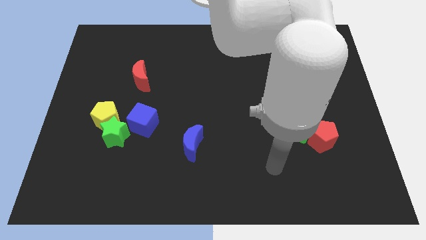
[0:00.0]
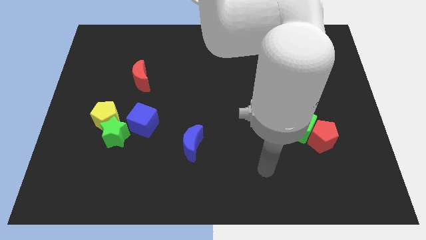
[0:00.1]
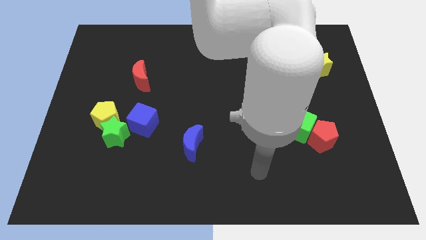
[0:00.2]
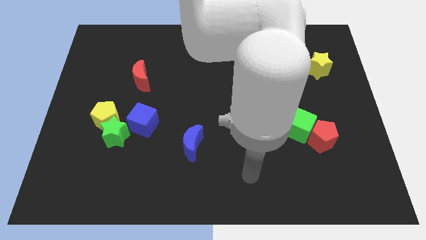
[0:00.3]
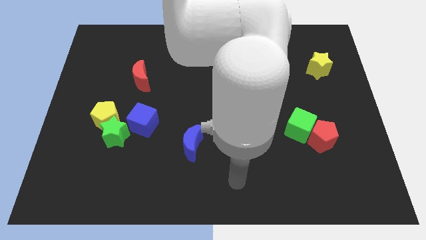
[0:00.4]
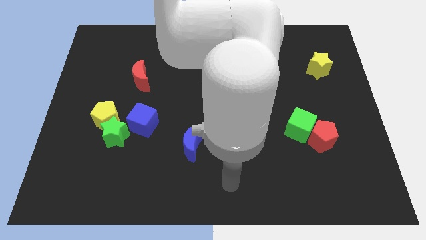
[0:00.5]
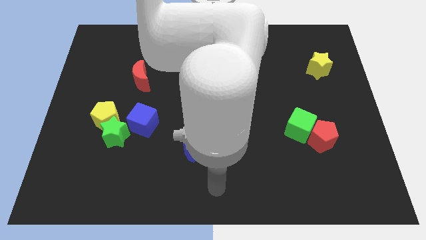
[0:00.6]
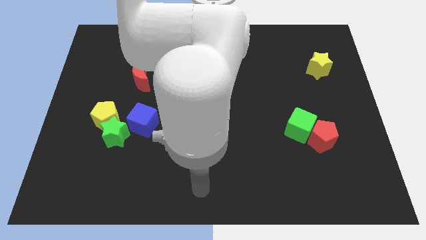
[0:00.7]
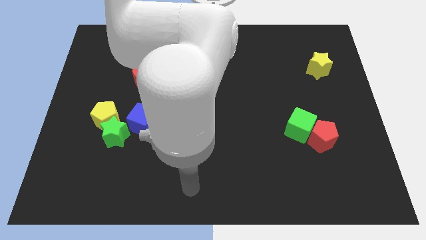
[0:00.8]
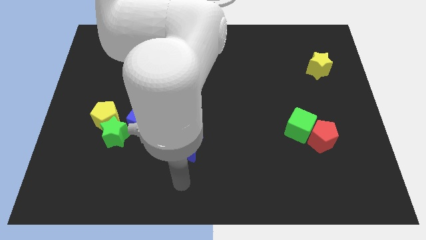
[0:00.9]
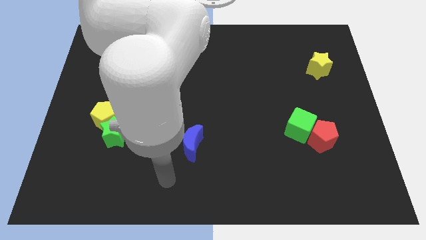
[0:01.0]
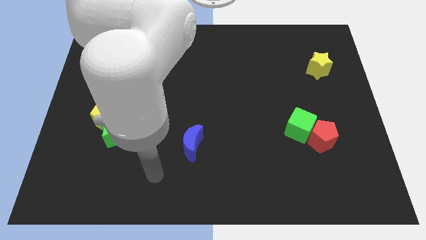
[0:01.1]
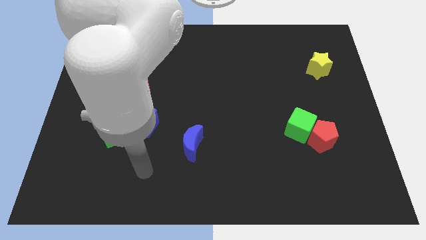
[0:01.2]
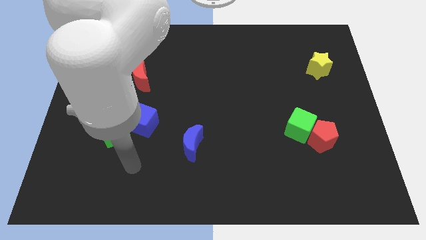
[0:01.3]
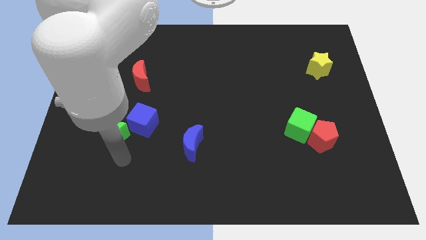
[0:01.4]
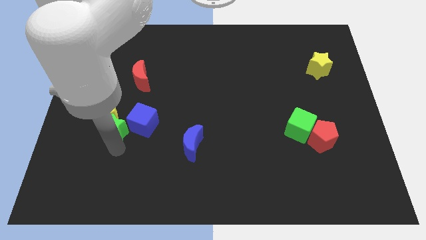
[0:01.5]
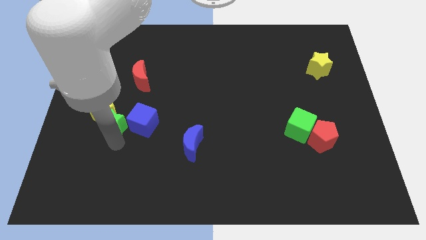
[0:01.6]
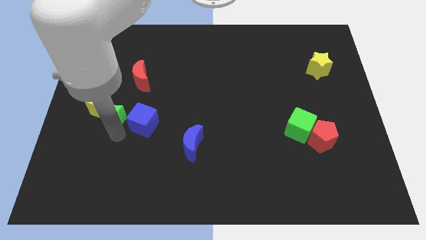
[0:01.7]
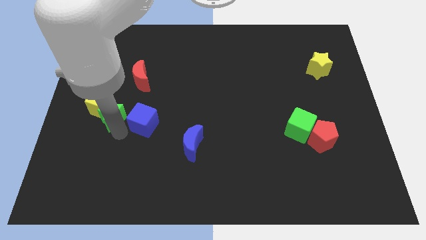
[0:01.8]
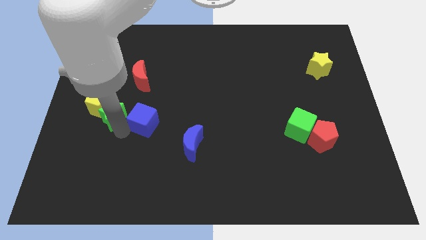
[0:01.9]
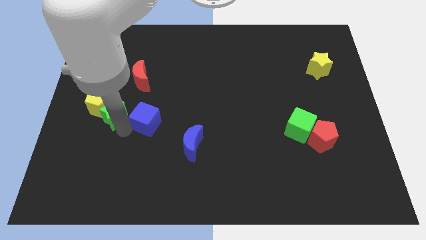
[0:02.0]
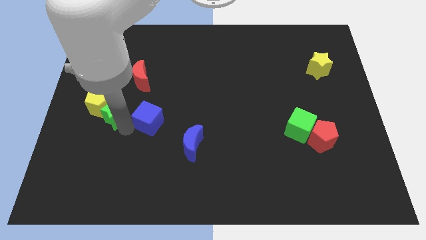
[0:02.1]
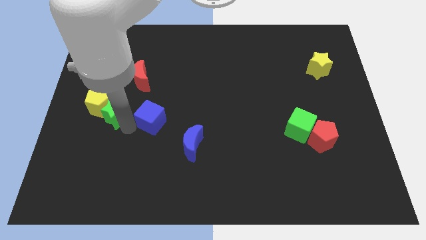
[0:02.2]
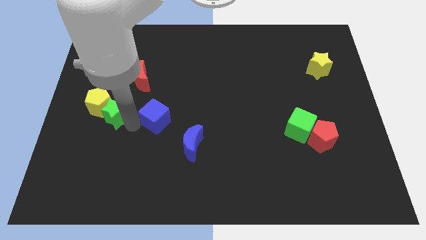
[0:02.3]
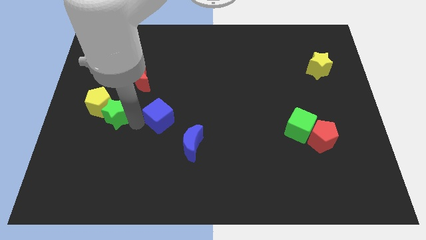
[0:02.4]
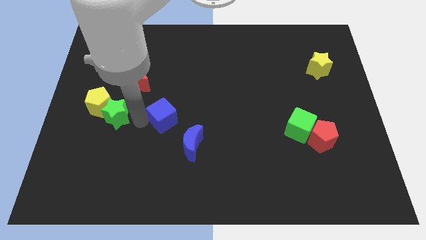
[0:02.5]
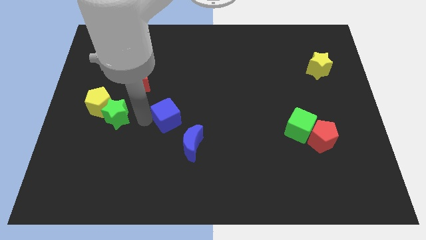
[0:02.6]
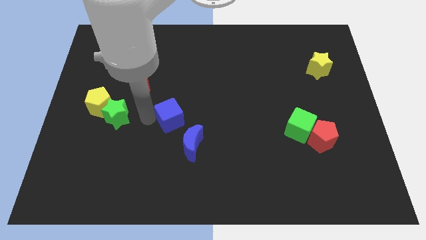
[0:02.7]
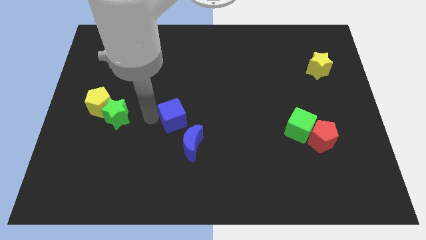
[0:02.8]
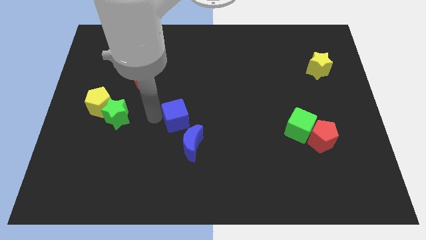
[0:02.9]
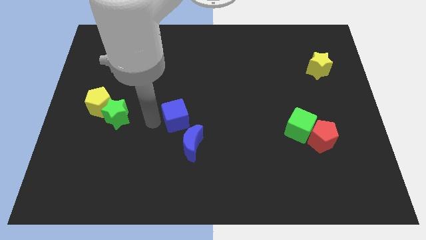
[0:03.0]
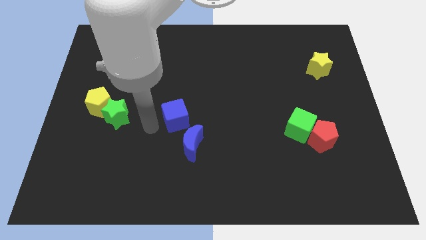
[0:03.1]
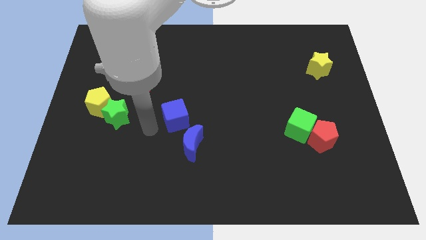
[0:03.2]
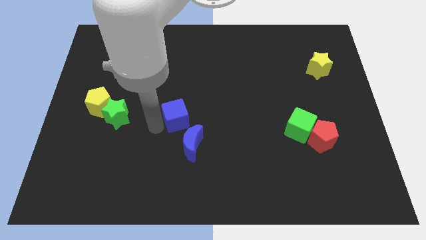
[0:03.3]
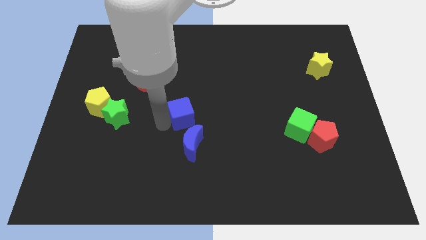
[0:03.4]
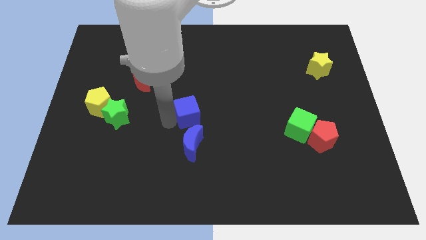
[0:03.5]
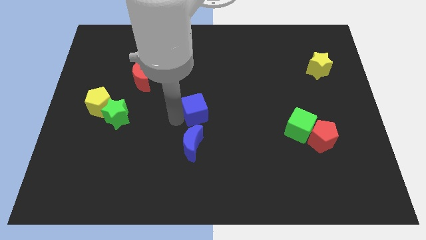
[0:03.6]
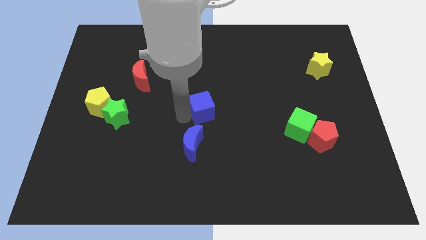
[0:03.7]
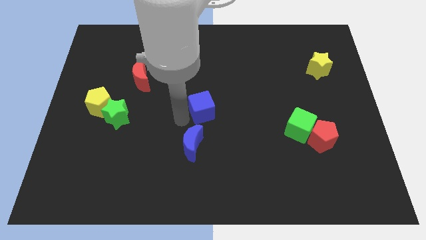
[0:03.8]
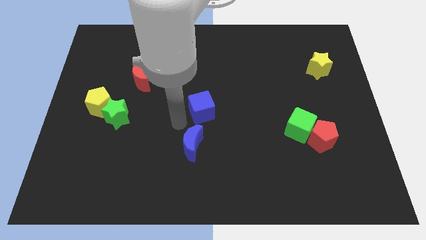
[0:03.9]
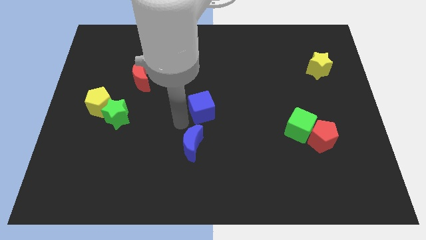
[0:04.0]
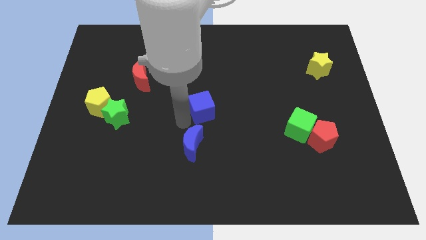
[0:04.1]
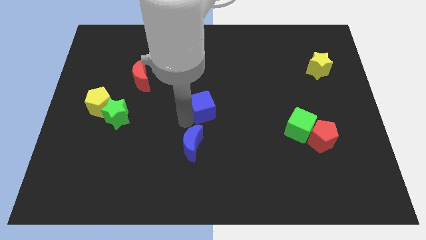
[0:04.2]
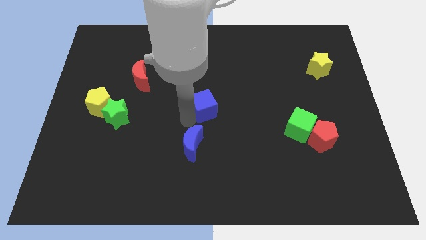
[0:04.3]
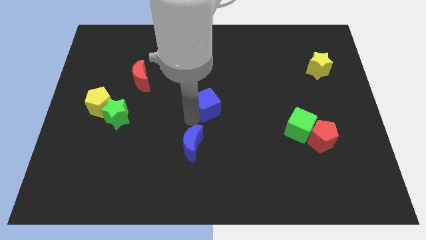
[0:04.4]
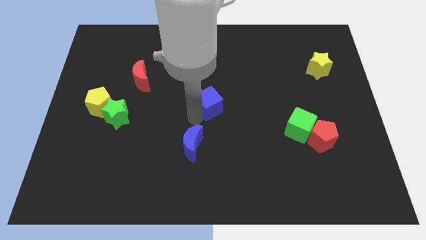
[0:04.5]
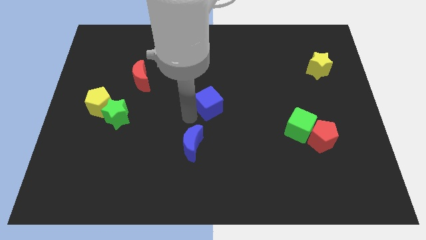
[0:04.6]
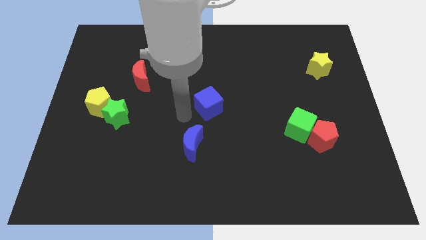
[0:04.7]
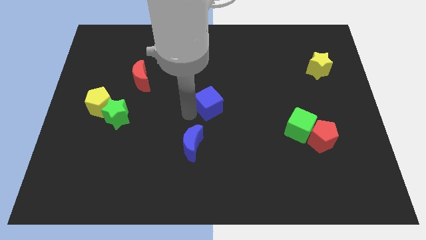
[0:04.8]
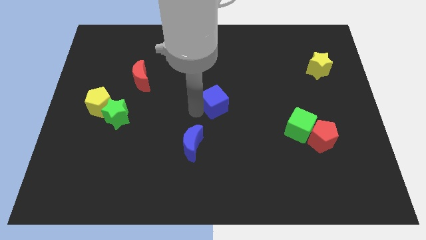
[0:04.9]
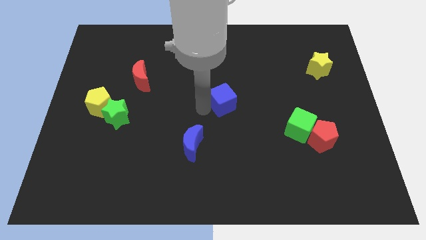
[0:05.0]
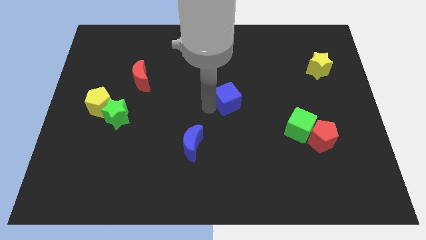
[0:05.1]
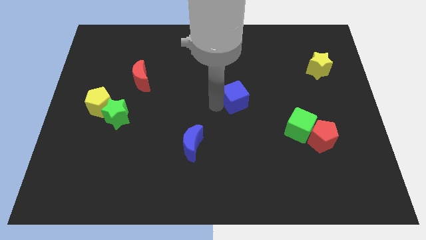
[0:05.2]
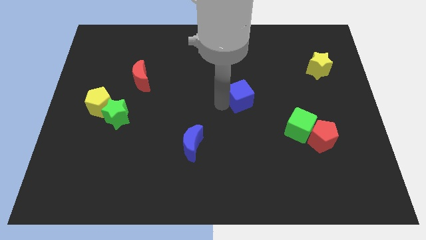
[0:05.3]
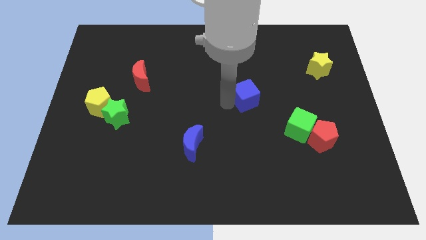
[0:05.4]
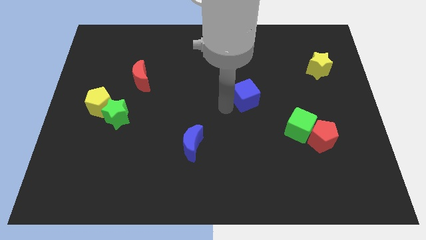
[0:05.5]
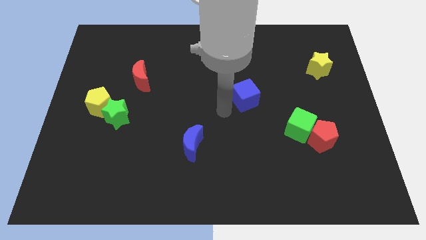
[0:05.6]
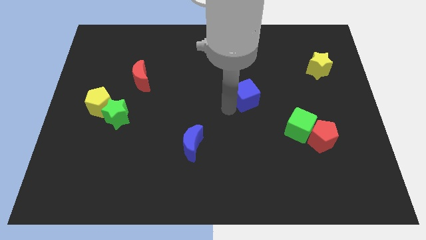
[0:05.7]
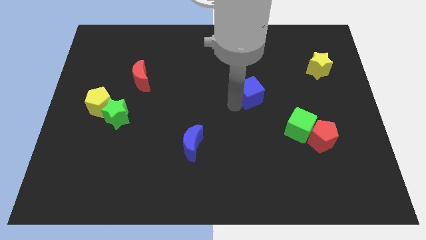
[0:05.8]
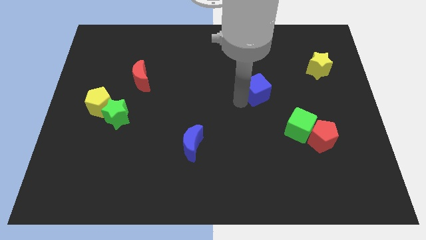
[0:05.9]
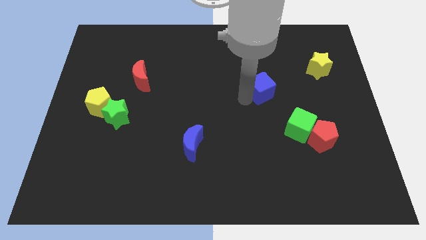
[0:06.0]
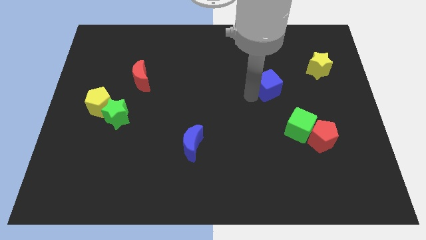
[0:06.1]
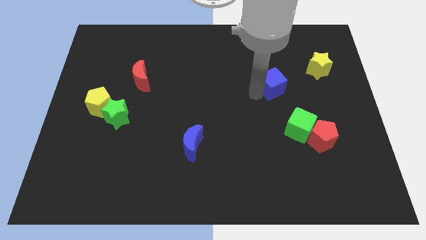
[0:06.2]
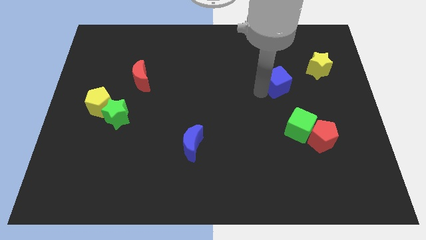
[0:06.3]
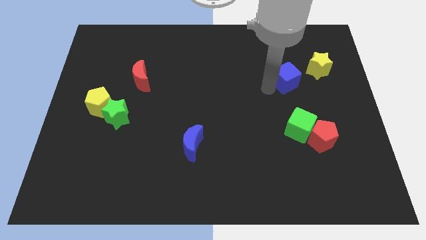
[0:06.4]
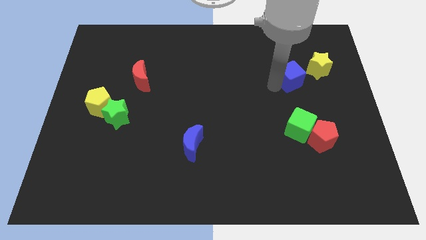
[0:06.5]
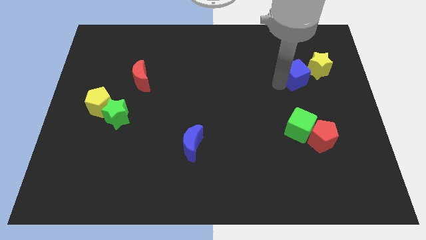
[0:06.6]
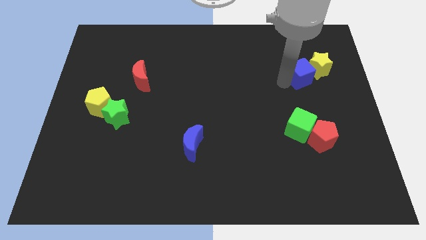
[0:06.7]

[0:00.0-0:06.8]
push the blue cube towards the yellow star

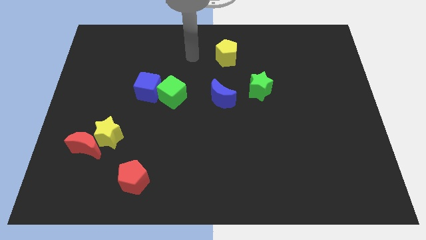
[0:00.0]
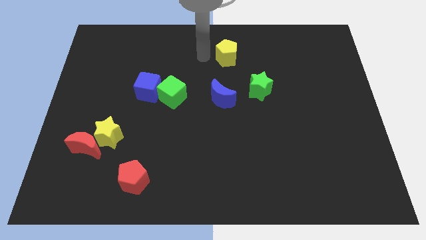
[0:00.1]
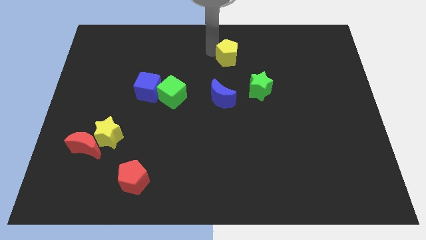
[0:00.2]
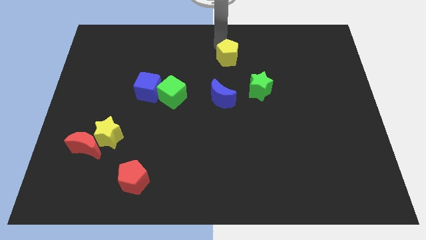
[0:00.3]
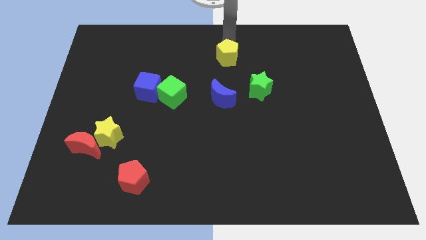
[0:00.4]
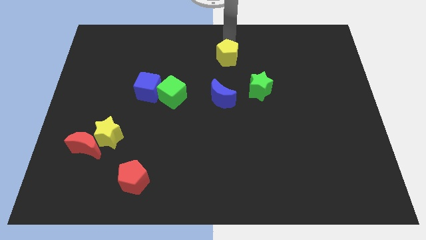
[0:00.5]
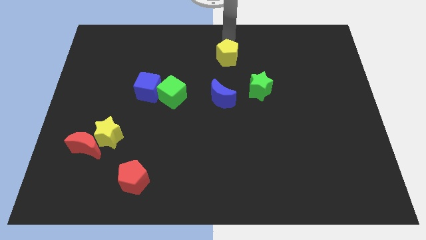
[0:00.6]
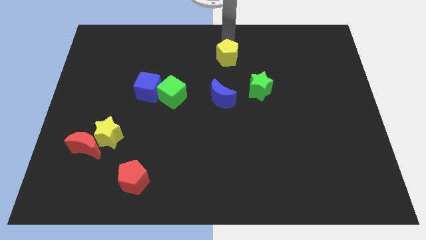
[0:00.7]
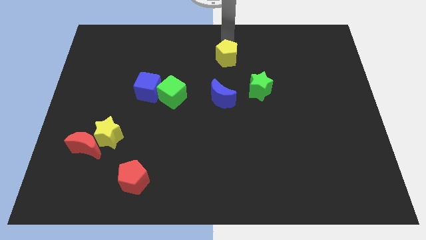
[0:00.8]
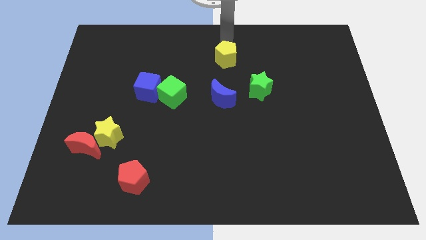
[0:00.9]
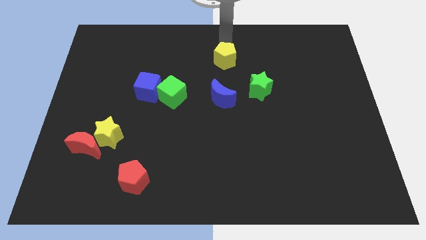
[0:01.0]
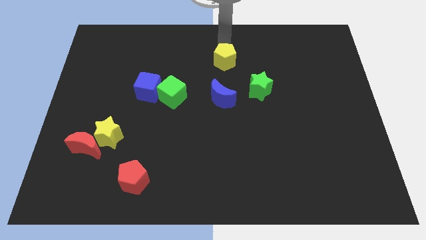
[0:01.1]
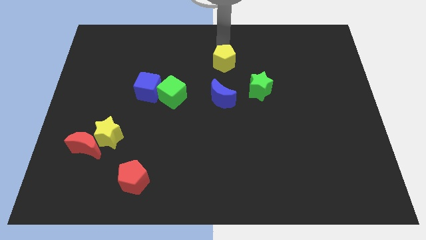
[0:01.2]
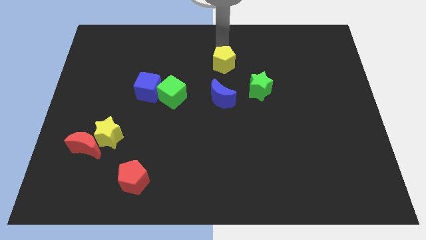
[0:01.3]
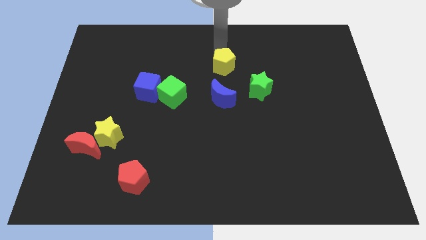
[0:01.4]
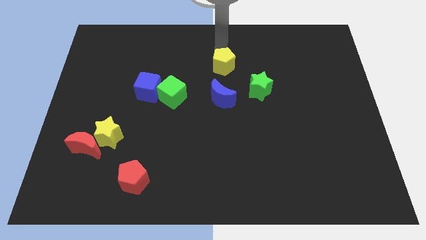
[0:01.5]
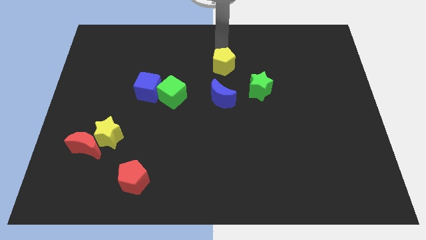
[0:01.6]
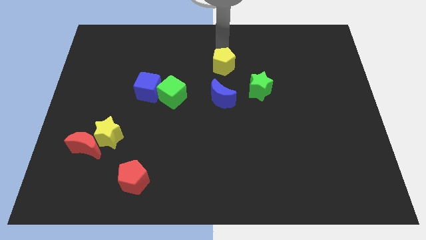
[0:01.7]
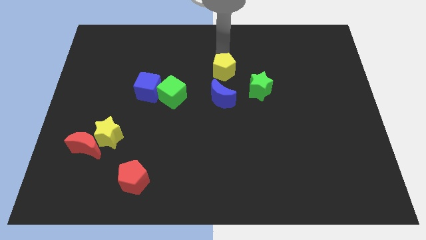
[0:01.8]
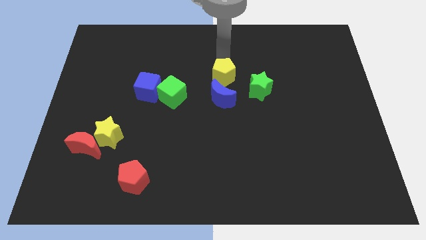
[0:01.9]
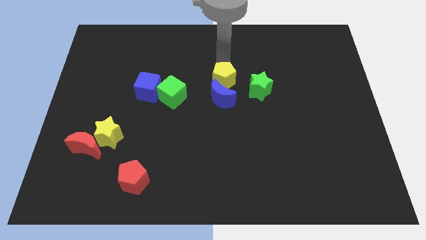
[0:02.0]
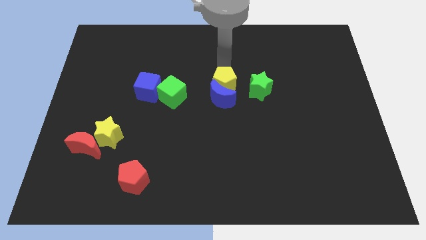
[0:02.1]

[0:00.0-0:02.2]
push the yellow pentagon next to the blue moon
